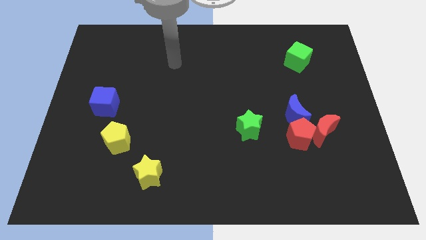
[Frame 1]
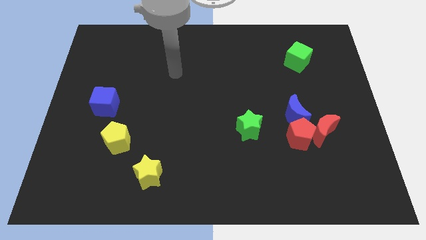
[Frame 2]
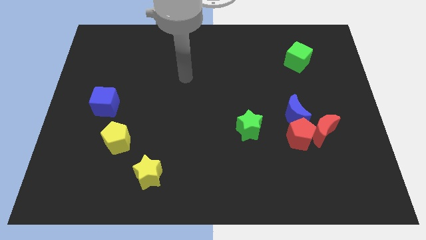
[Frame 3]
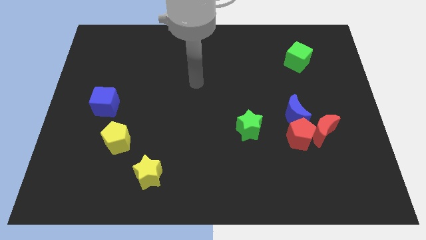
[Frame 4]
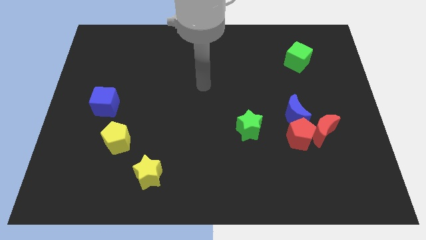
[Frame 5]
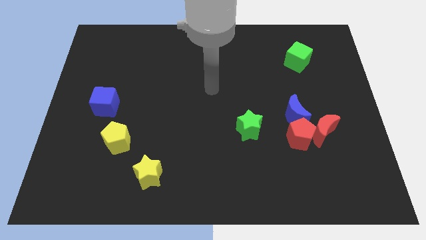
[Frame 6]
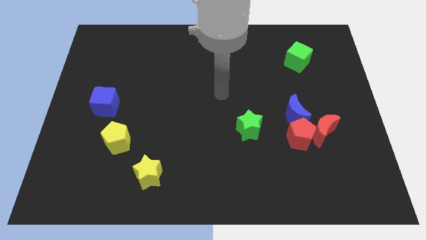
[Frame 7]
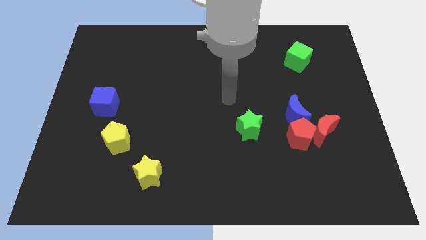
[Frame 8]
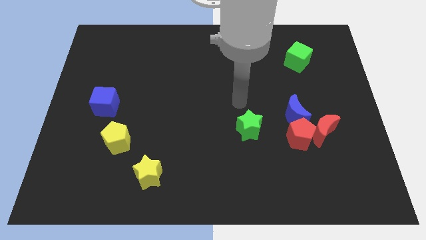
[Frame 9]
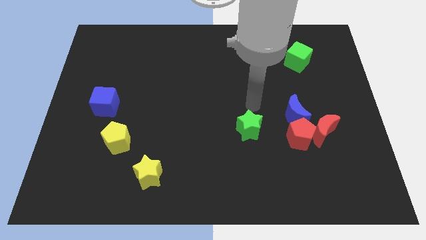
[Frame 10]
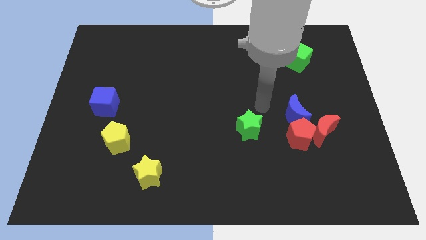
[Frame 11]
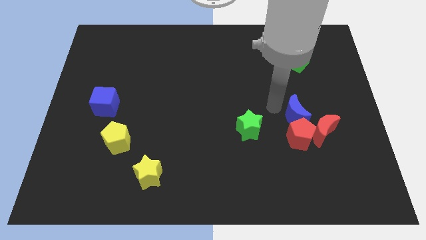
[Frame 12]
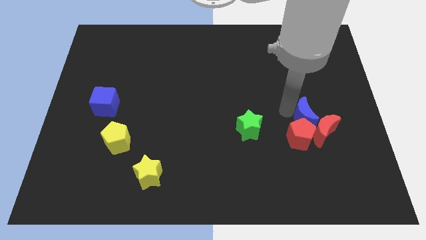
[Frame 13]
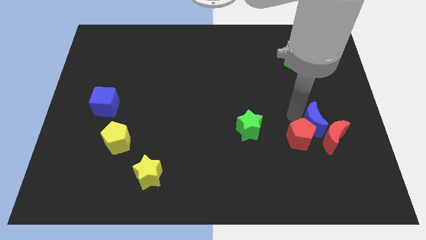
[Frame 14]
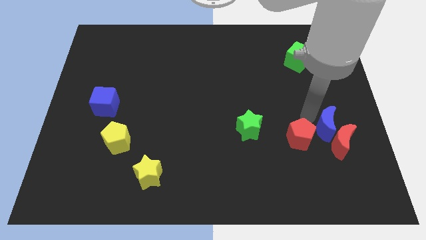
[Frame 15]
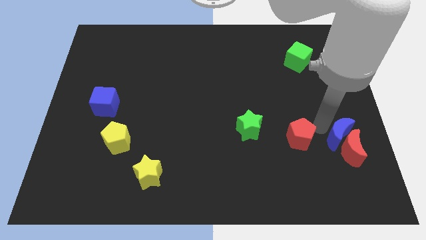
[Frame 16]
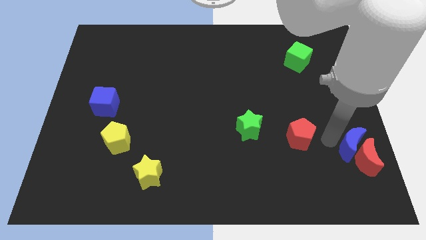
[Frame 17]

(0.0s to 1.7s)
move the red pentagon away from the red moon and blue moon

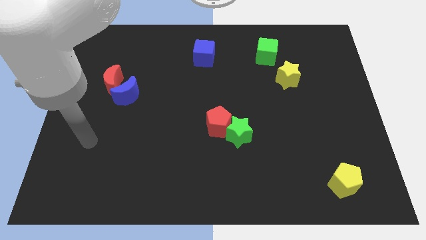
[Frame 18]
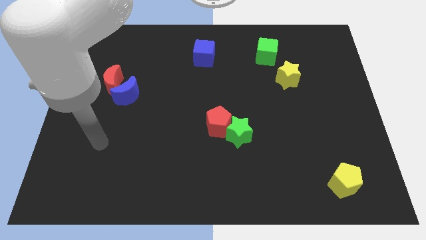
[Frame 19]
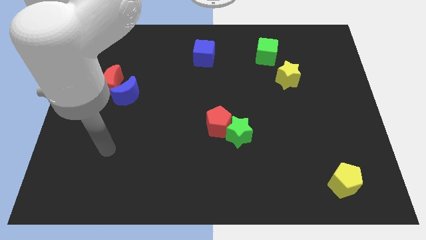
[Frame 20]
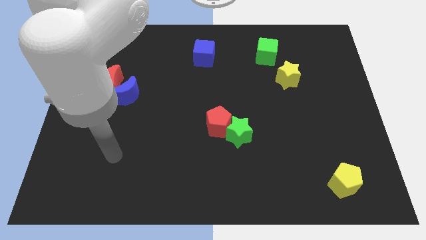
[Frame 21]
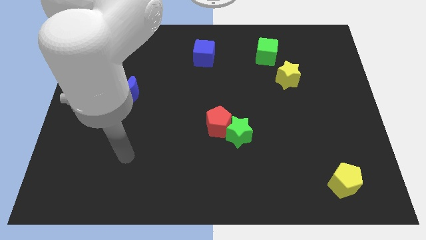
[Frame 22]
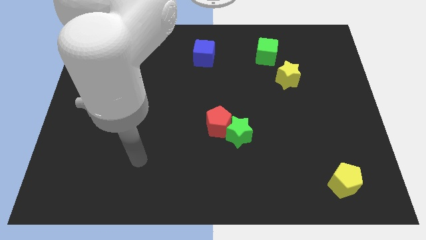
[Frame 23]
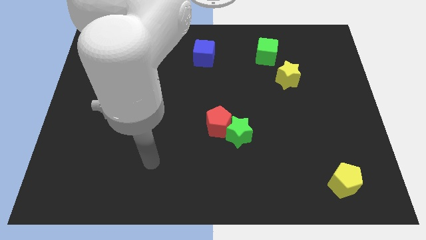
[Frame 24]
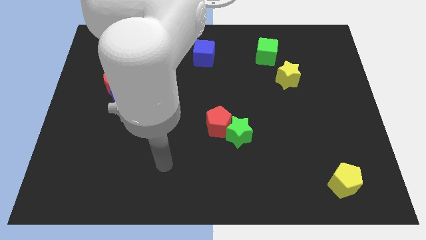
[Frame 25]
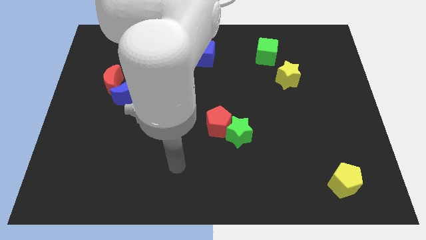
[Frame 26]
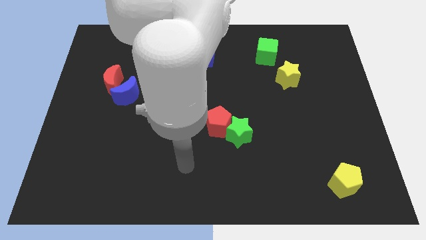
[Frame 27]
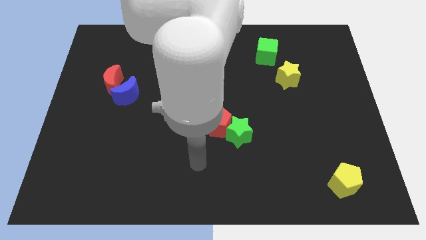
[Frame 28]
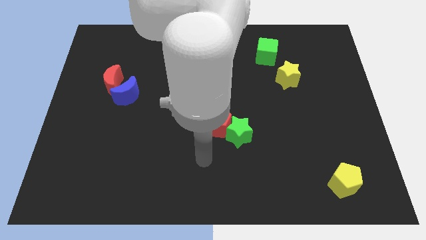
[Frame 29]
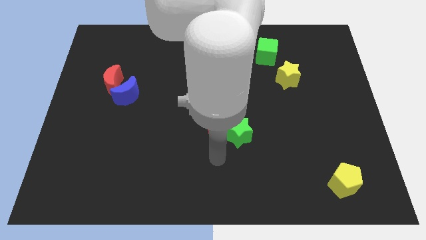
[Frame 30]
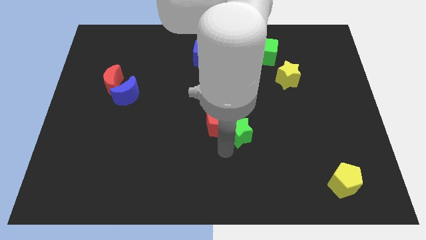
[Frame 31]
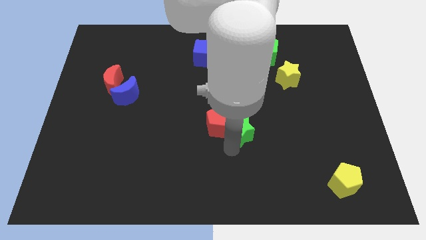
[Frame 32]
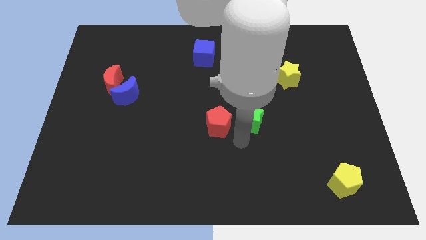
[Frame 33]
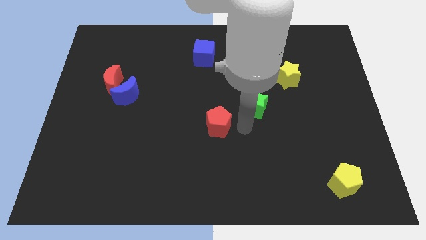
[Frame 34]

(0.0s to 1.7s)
separate the red pentagon from the green star

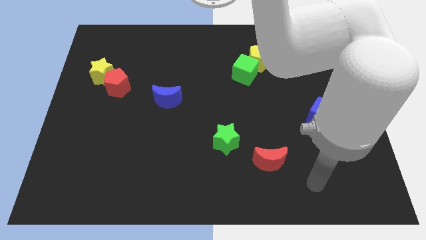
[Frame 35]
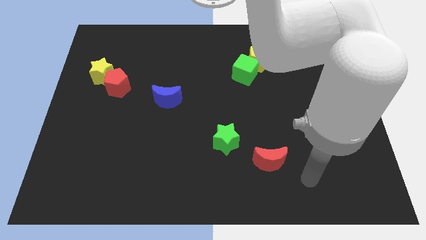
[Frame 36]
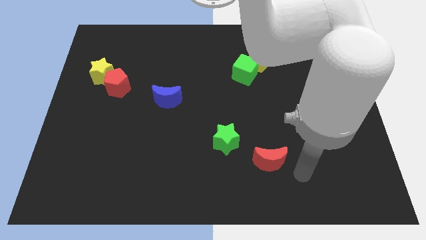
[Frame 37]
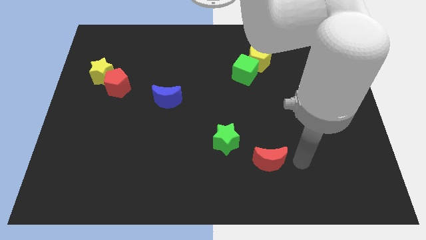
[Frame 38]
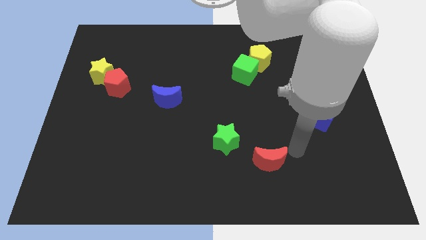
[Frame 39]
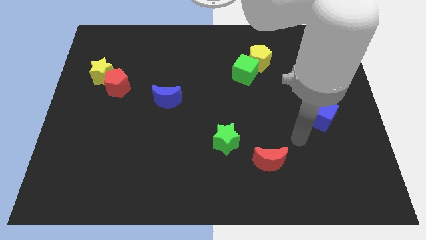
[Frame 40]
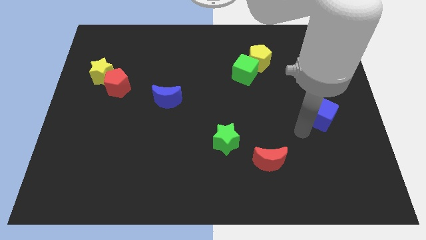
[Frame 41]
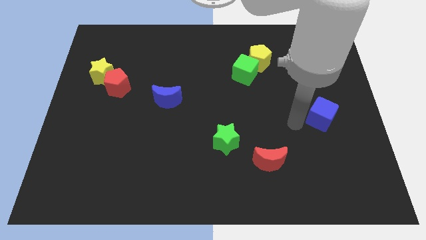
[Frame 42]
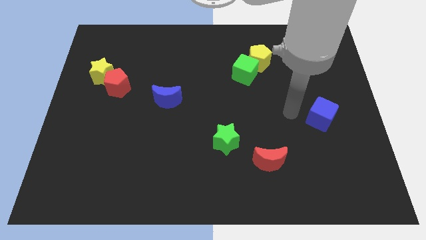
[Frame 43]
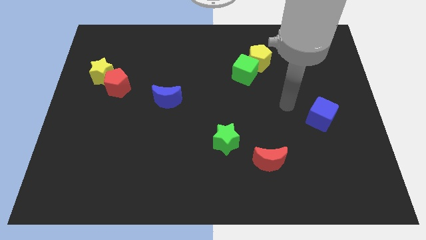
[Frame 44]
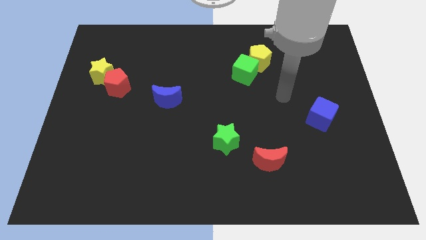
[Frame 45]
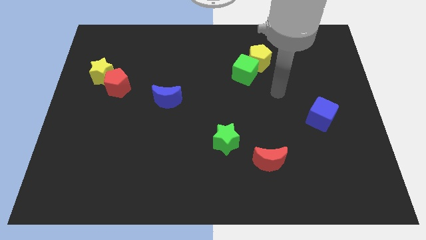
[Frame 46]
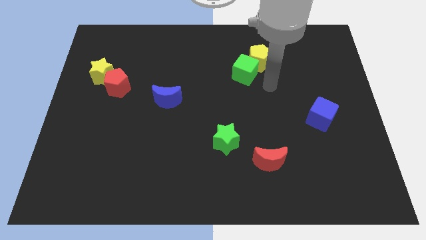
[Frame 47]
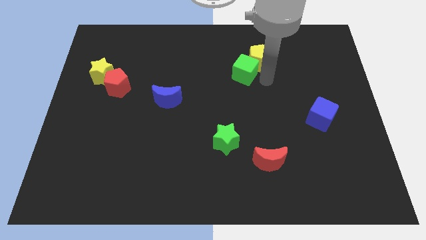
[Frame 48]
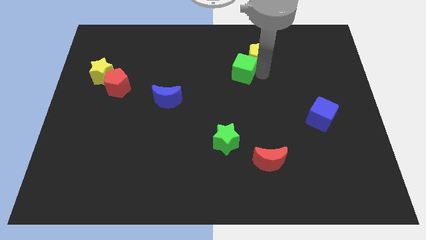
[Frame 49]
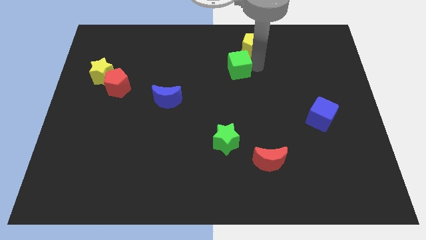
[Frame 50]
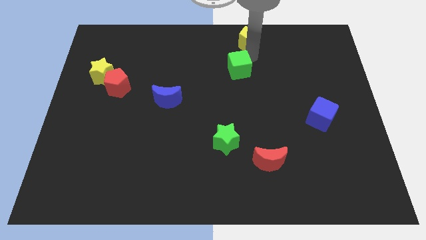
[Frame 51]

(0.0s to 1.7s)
separate the green cube from the yellow pentagon

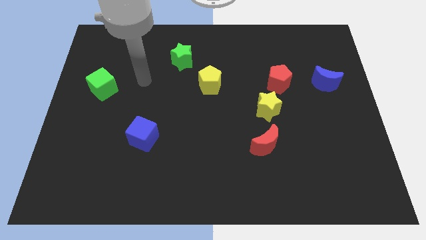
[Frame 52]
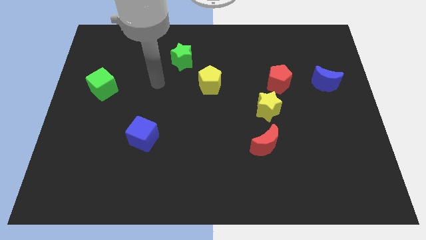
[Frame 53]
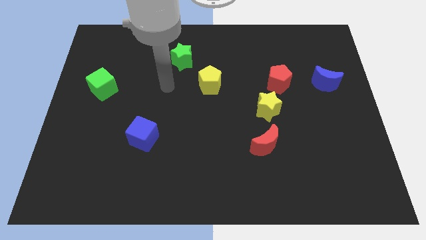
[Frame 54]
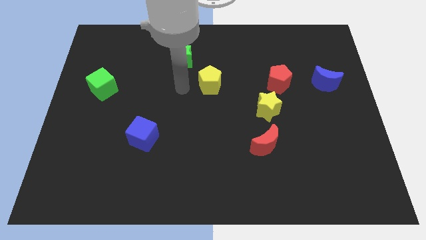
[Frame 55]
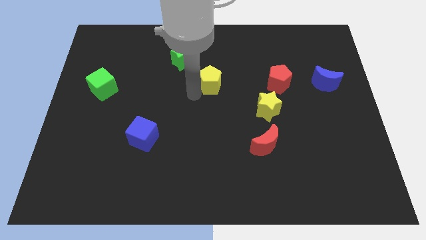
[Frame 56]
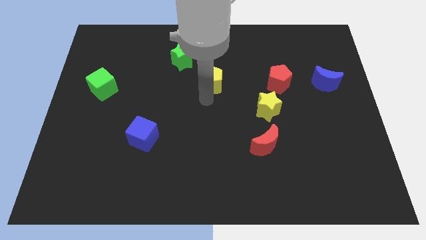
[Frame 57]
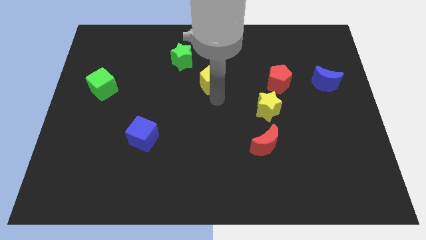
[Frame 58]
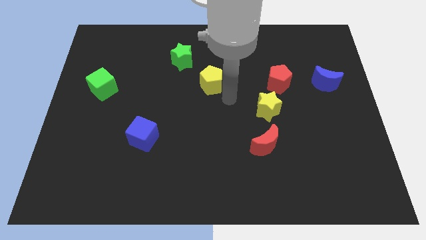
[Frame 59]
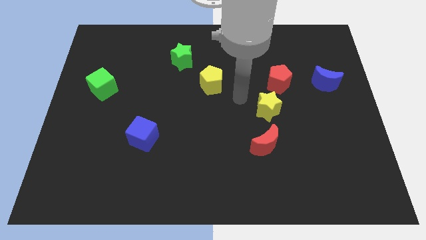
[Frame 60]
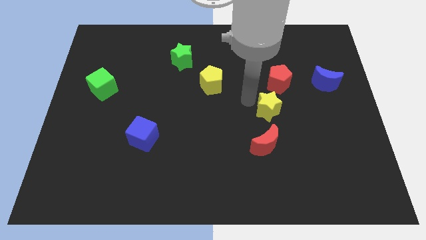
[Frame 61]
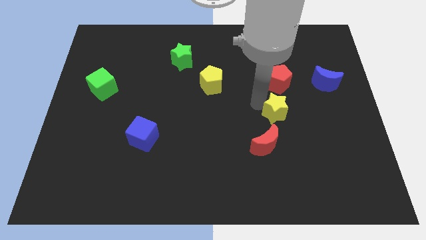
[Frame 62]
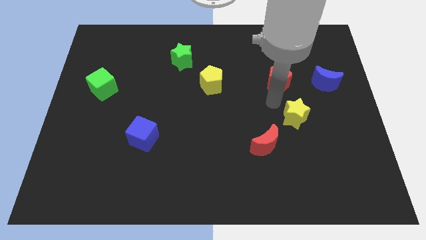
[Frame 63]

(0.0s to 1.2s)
separate the red pentagon from the yellow star

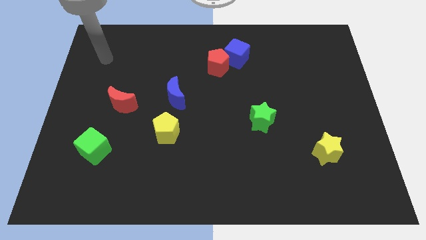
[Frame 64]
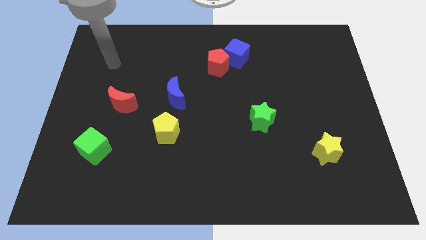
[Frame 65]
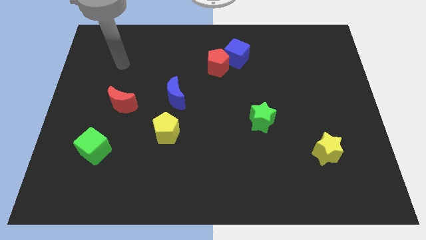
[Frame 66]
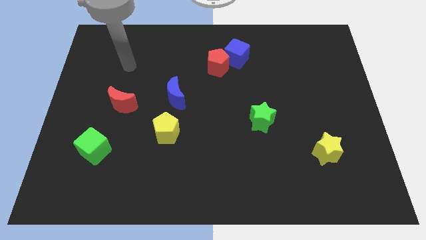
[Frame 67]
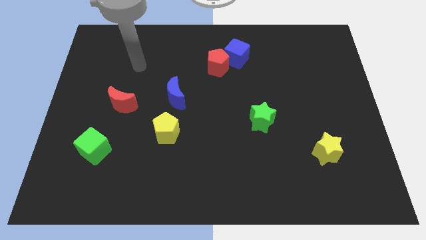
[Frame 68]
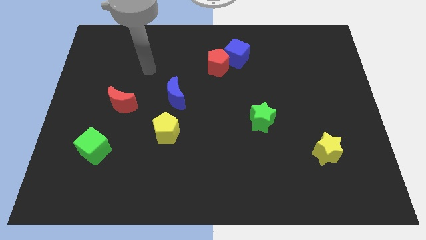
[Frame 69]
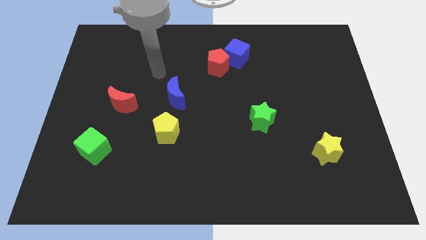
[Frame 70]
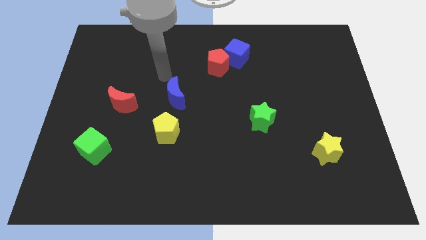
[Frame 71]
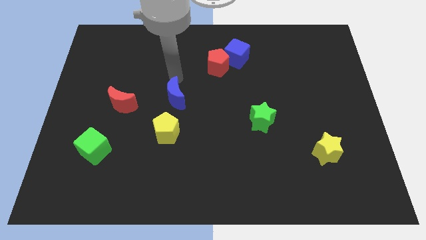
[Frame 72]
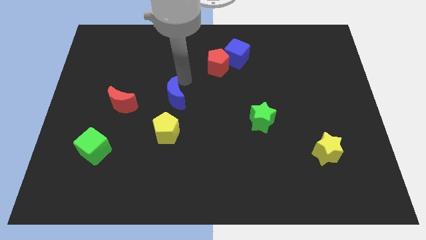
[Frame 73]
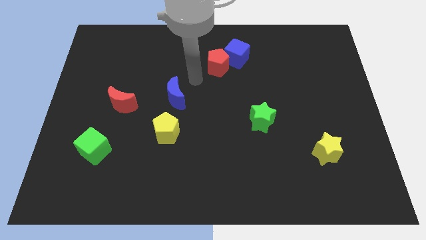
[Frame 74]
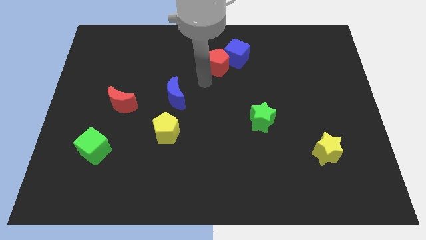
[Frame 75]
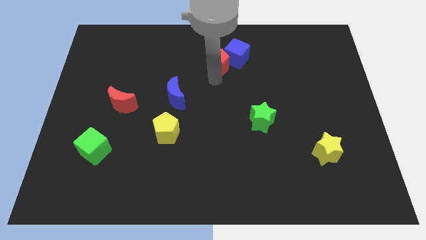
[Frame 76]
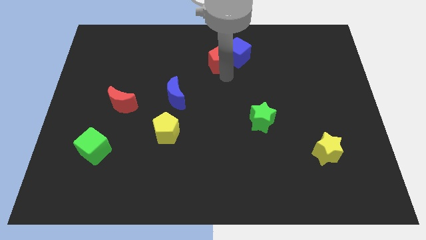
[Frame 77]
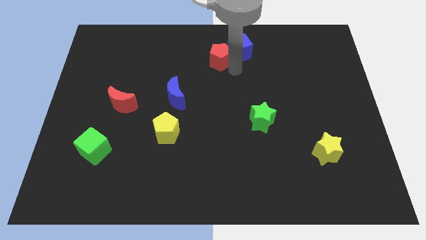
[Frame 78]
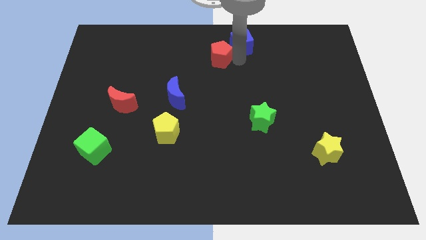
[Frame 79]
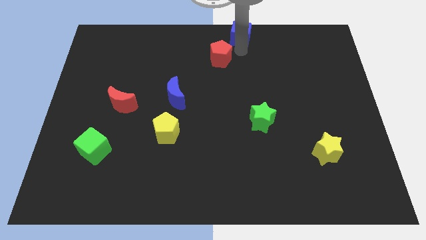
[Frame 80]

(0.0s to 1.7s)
separate the red pentagon from the blue cube

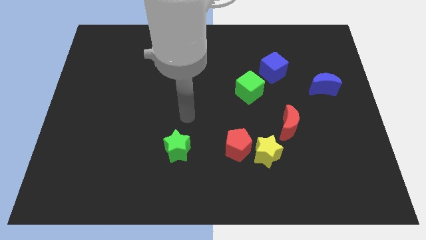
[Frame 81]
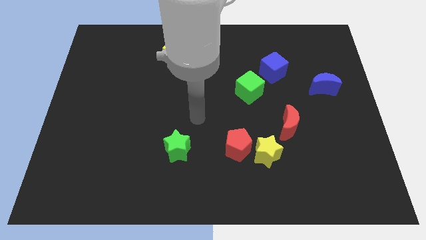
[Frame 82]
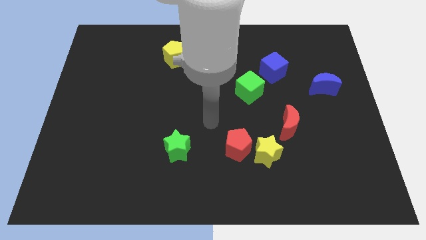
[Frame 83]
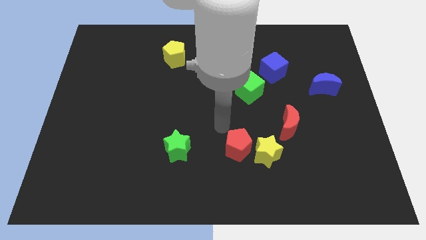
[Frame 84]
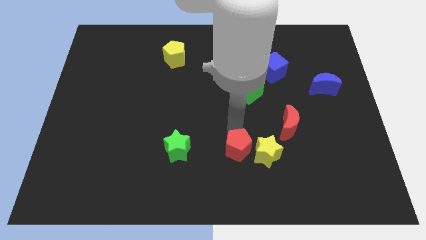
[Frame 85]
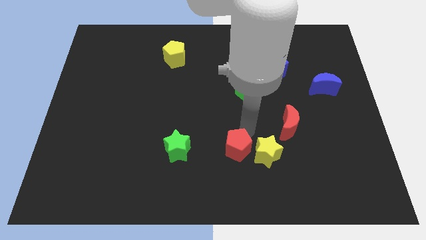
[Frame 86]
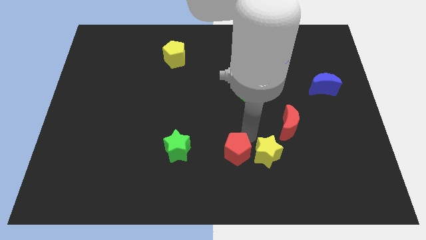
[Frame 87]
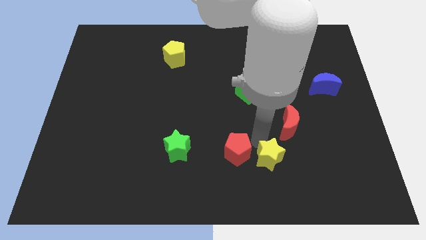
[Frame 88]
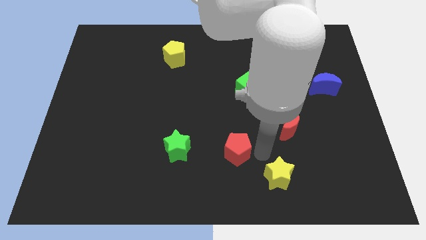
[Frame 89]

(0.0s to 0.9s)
pull the red pentagon apart from the yellow star

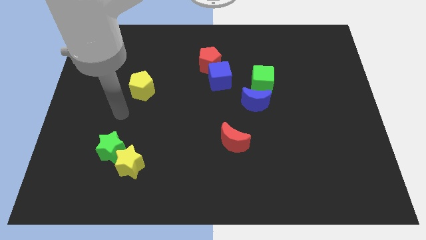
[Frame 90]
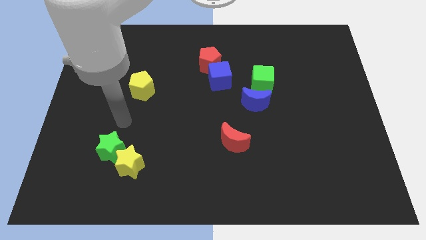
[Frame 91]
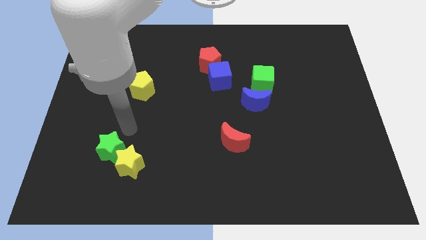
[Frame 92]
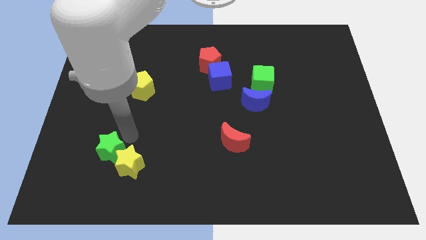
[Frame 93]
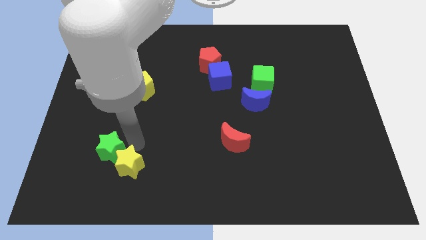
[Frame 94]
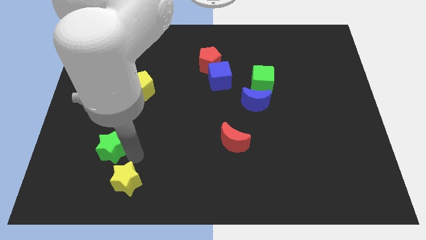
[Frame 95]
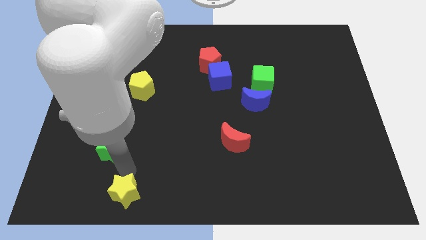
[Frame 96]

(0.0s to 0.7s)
move the green star away from the yellow star
